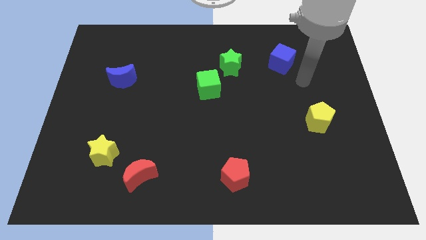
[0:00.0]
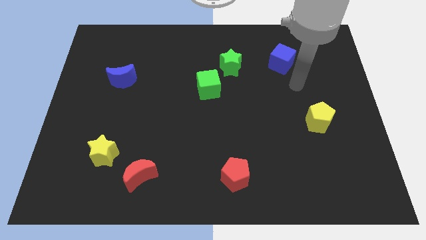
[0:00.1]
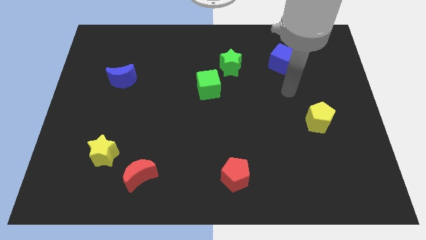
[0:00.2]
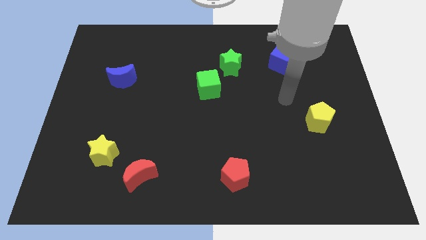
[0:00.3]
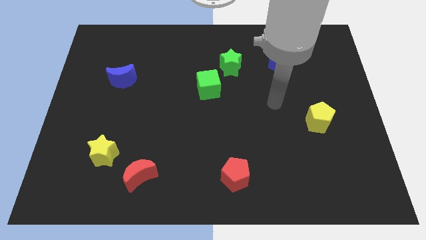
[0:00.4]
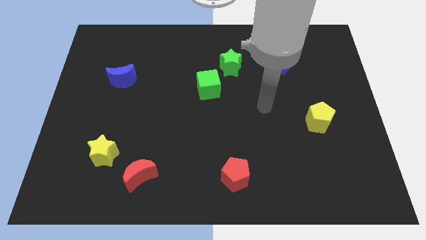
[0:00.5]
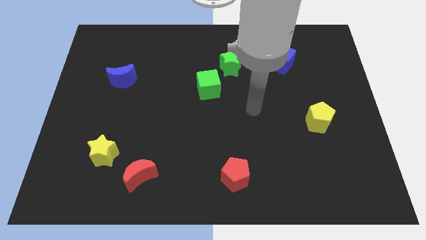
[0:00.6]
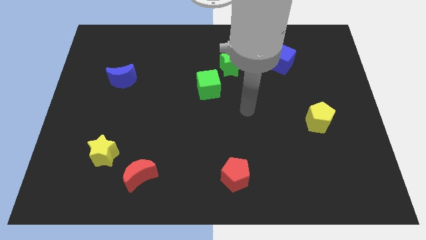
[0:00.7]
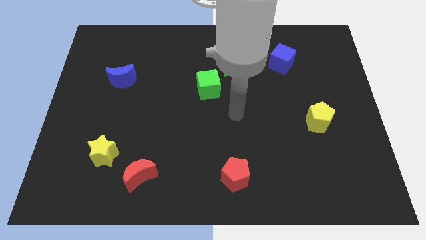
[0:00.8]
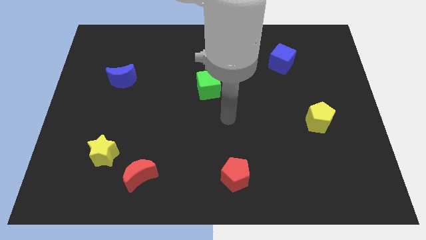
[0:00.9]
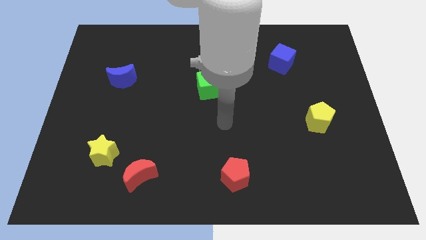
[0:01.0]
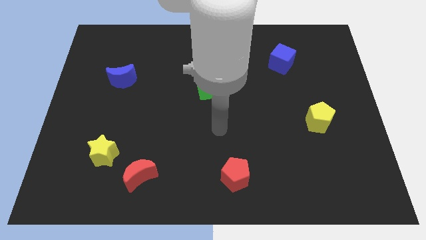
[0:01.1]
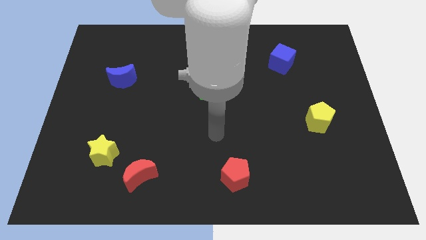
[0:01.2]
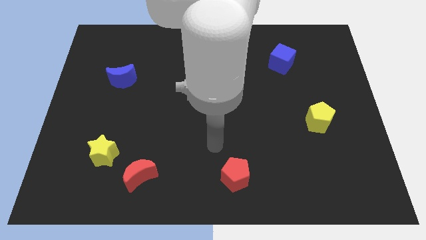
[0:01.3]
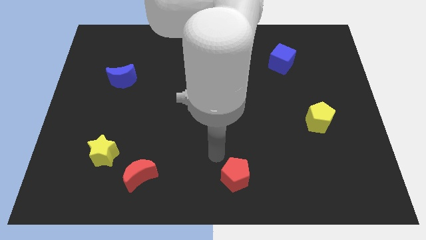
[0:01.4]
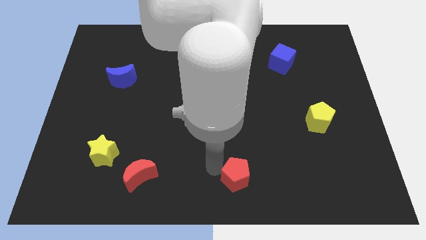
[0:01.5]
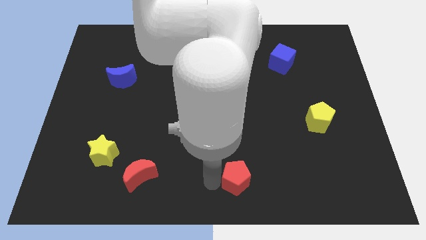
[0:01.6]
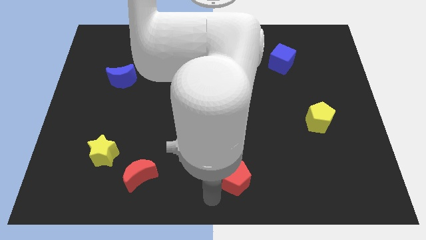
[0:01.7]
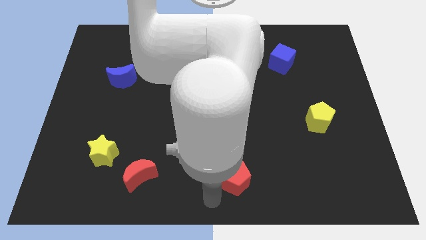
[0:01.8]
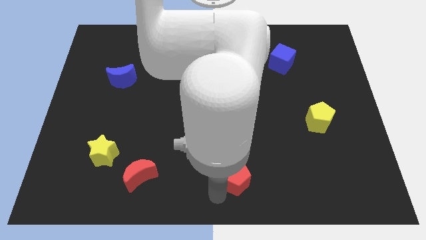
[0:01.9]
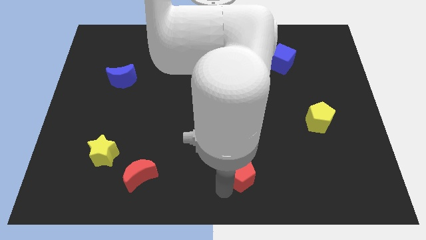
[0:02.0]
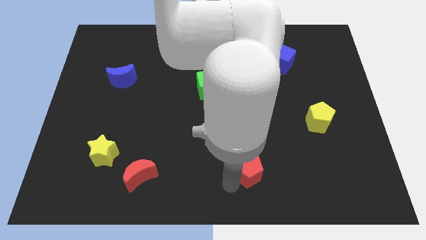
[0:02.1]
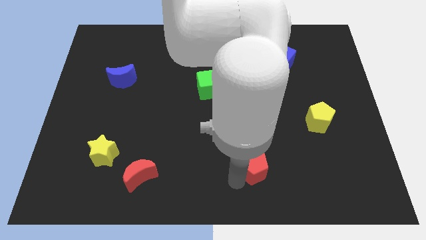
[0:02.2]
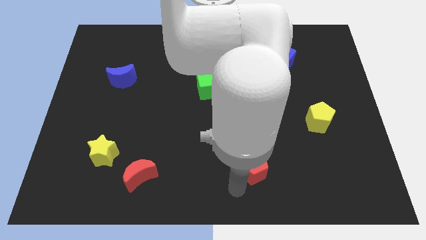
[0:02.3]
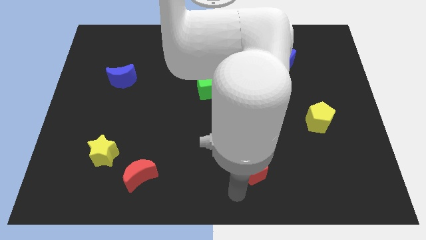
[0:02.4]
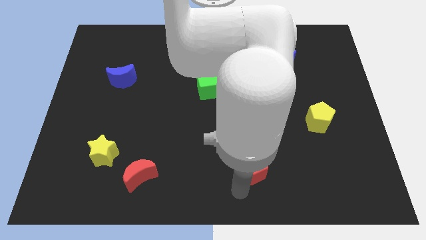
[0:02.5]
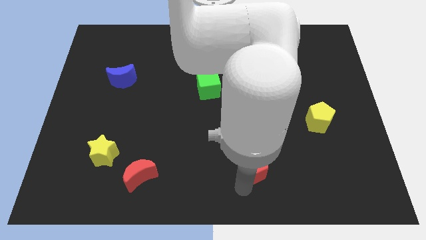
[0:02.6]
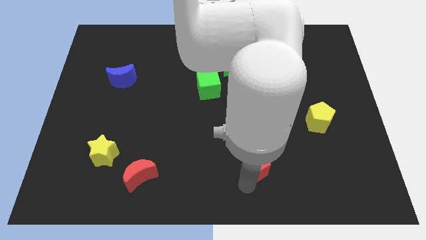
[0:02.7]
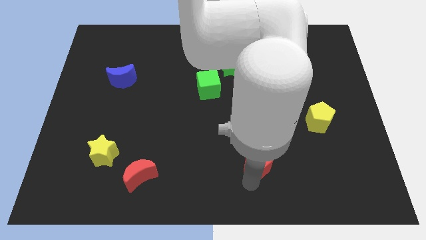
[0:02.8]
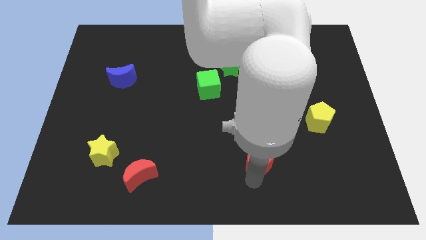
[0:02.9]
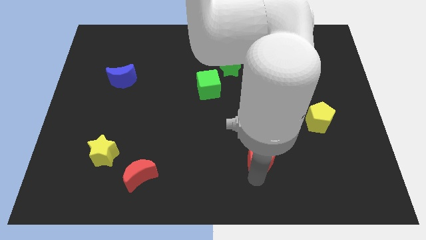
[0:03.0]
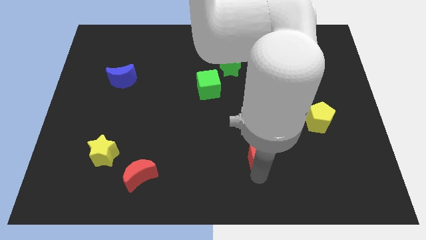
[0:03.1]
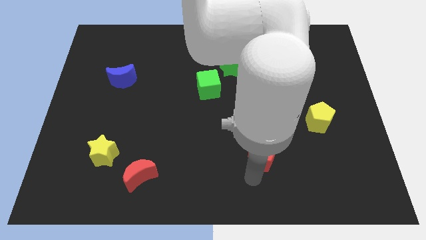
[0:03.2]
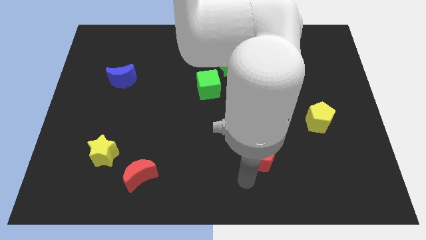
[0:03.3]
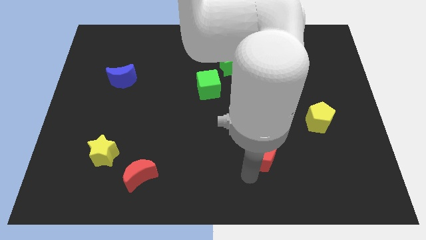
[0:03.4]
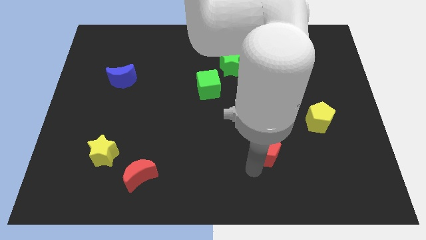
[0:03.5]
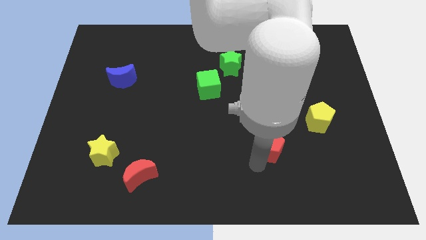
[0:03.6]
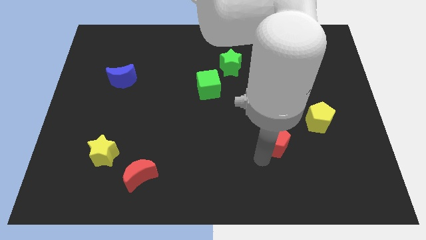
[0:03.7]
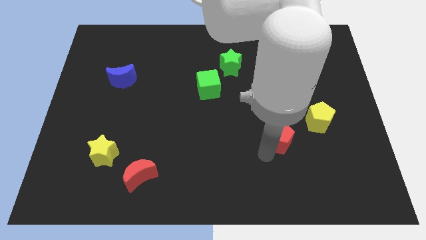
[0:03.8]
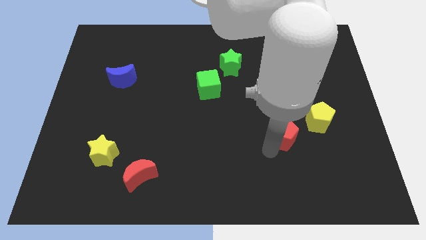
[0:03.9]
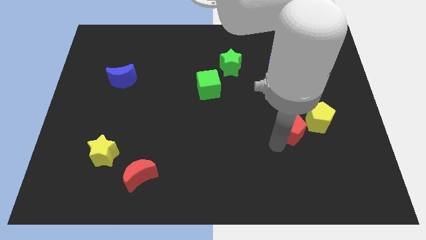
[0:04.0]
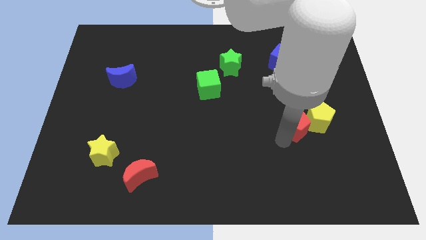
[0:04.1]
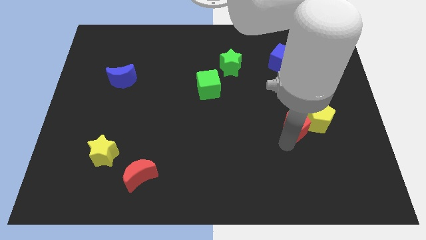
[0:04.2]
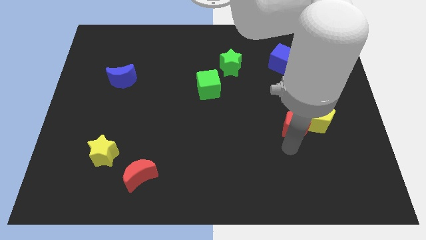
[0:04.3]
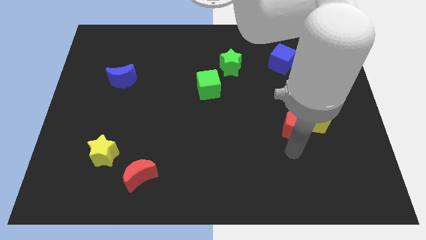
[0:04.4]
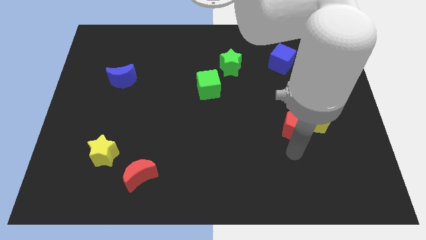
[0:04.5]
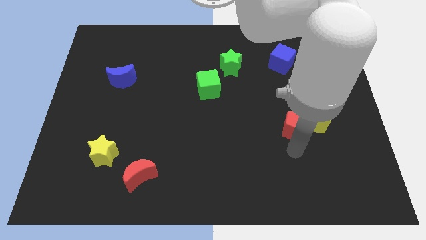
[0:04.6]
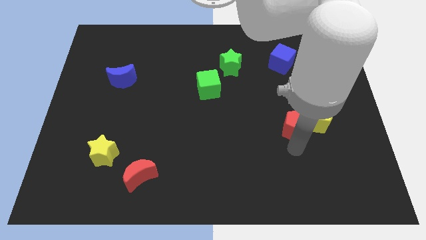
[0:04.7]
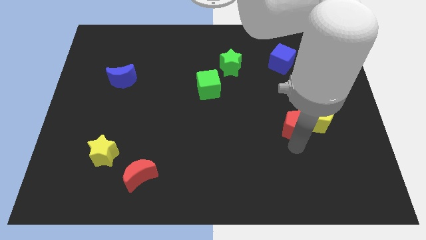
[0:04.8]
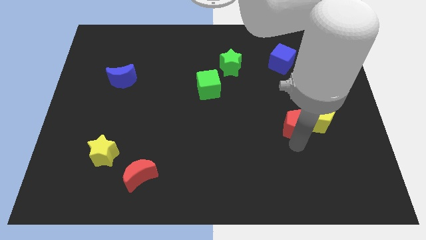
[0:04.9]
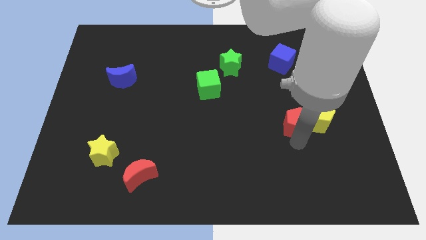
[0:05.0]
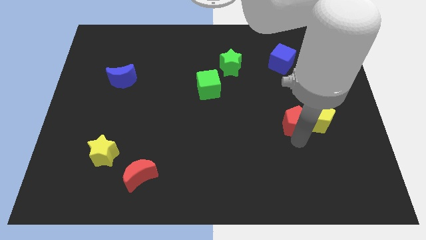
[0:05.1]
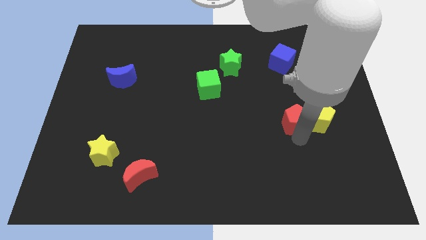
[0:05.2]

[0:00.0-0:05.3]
move the red pentagon diagonally up and to the right

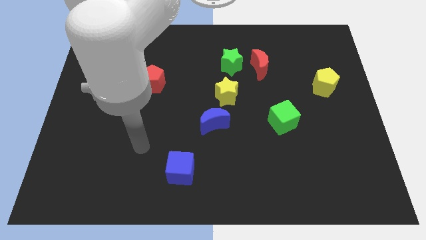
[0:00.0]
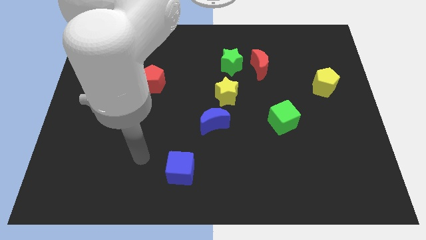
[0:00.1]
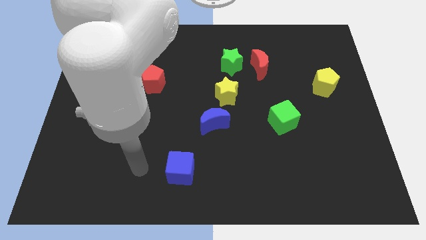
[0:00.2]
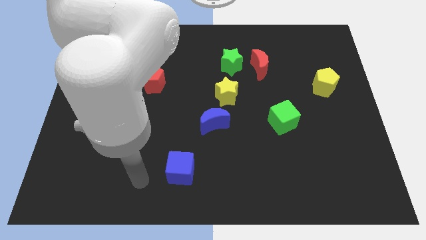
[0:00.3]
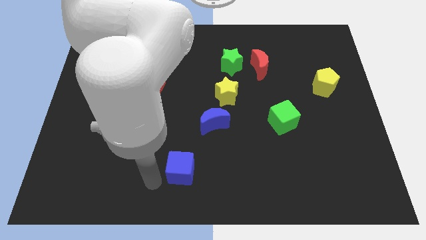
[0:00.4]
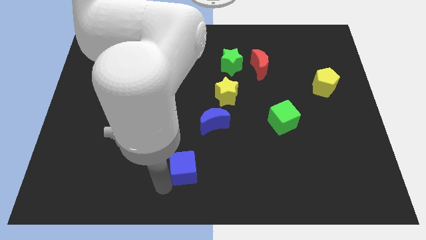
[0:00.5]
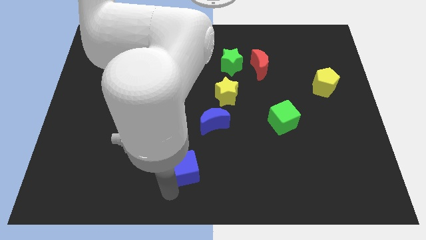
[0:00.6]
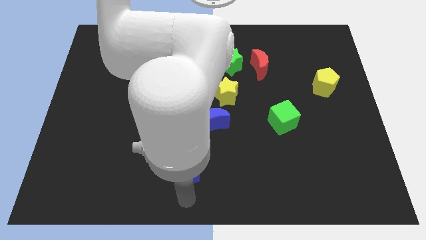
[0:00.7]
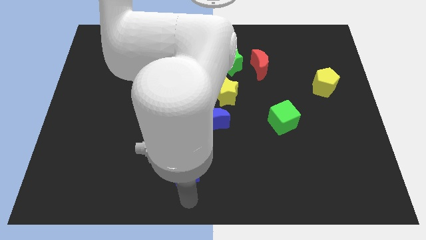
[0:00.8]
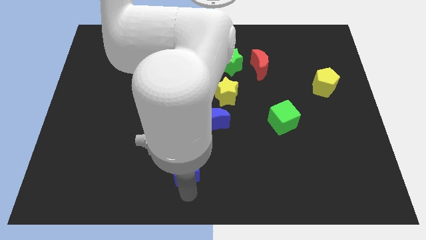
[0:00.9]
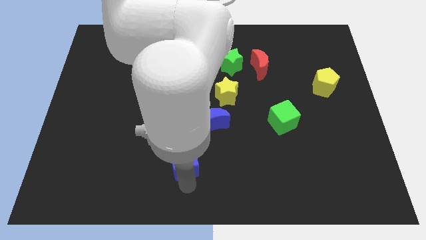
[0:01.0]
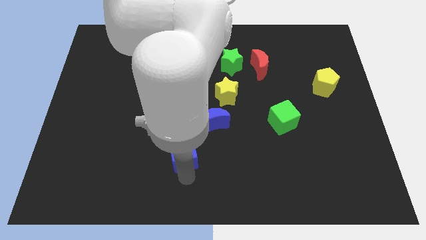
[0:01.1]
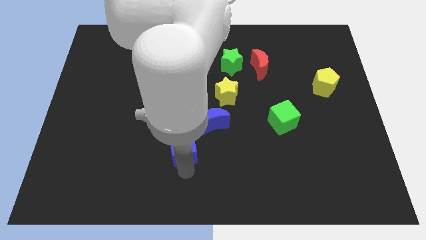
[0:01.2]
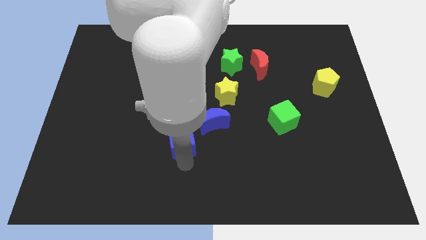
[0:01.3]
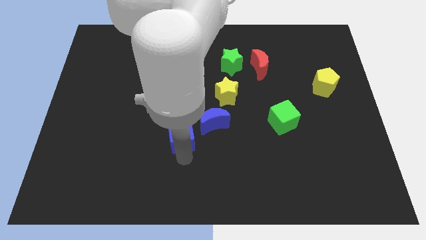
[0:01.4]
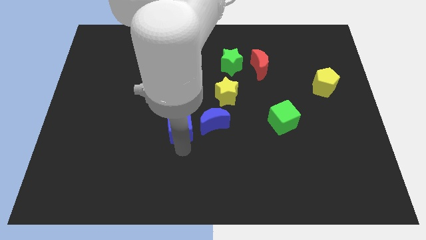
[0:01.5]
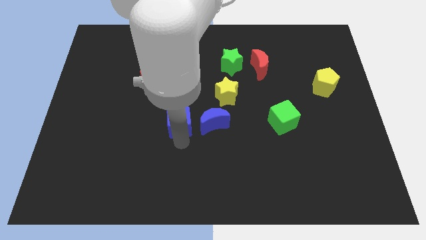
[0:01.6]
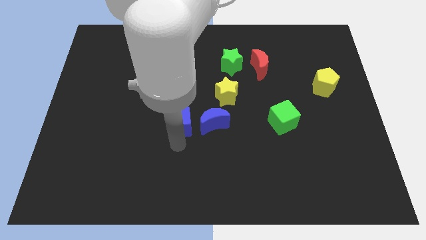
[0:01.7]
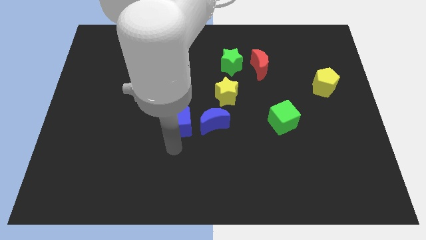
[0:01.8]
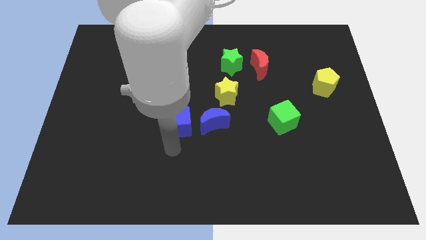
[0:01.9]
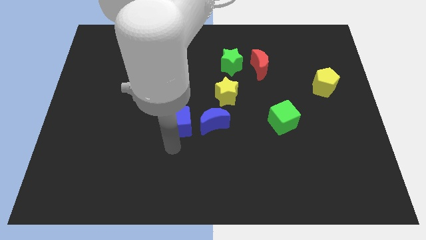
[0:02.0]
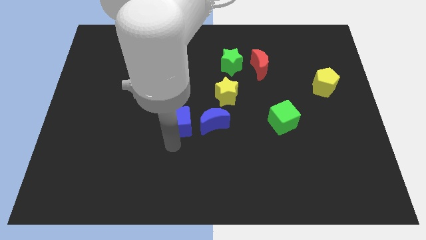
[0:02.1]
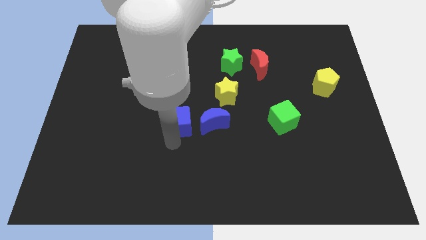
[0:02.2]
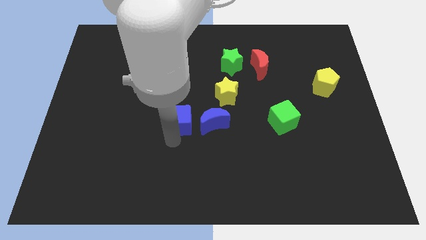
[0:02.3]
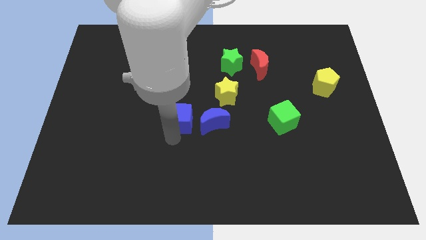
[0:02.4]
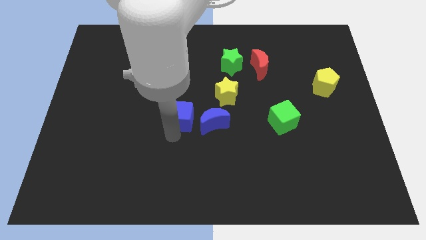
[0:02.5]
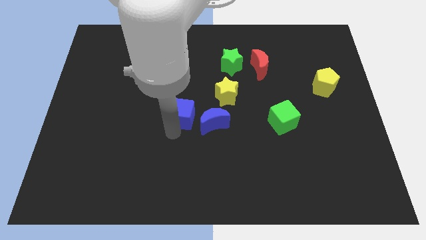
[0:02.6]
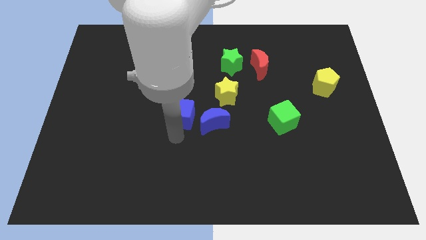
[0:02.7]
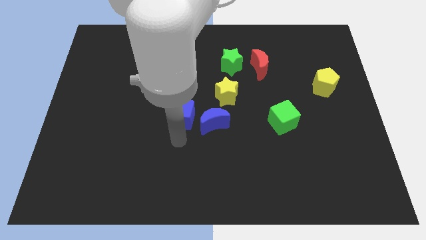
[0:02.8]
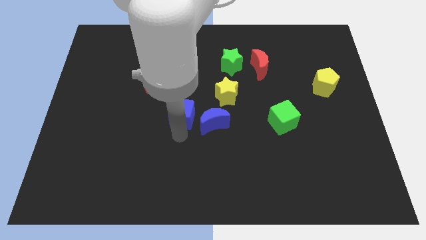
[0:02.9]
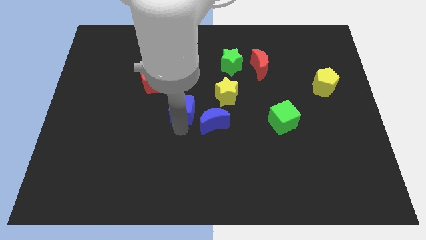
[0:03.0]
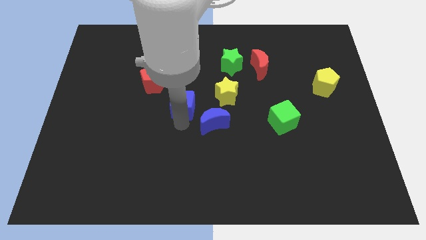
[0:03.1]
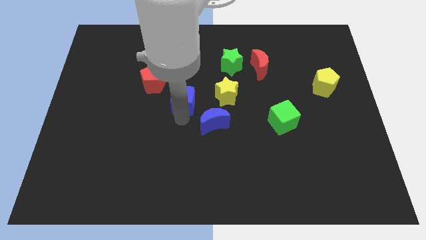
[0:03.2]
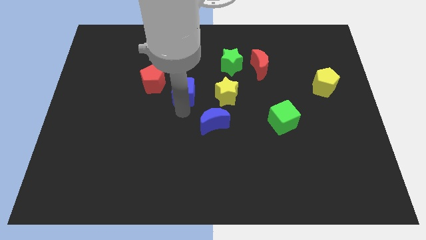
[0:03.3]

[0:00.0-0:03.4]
push the blue cube upwards
